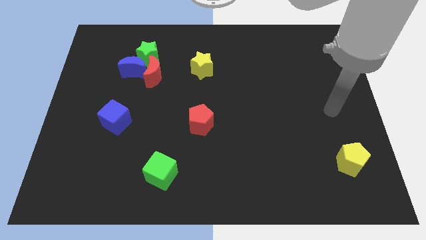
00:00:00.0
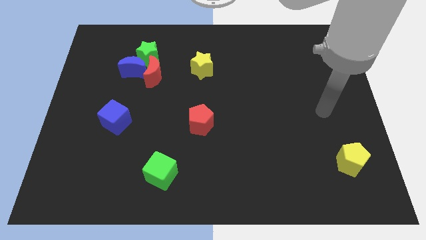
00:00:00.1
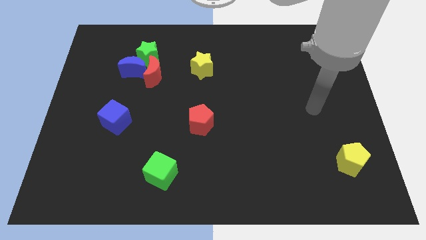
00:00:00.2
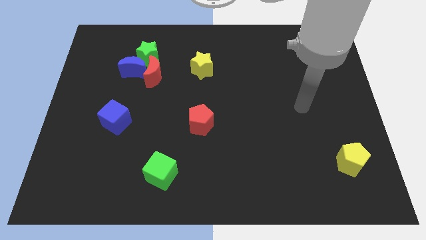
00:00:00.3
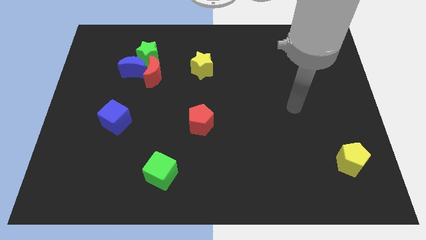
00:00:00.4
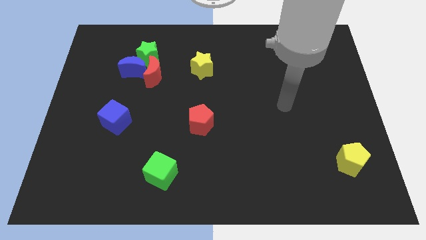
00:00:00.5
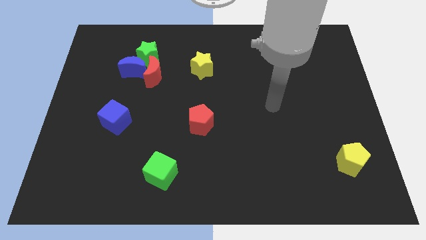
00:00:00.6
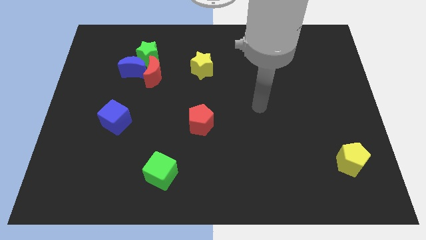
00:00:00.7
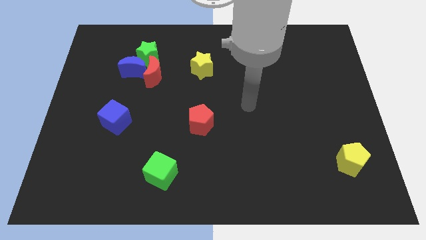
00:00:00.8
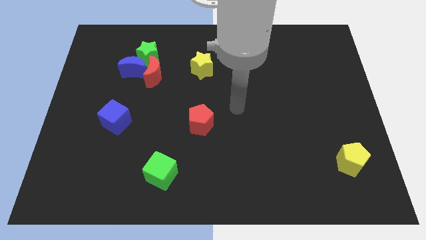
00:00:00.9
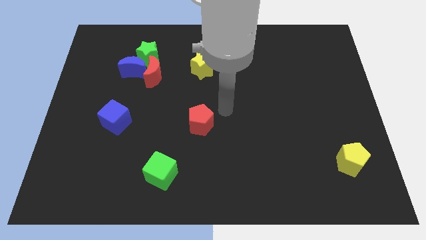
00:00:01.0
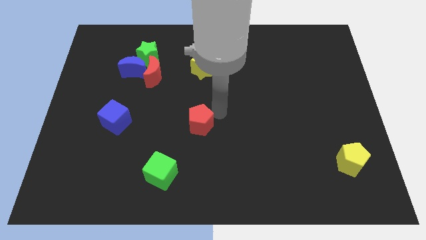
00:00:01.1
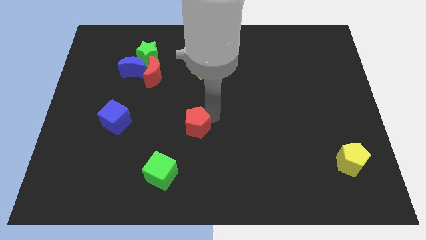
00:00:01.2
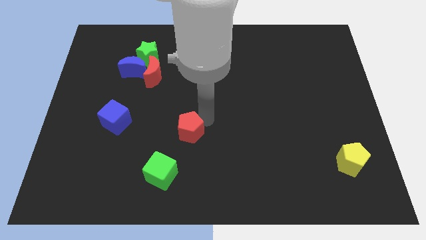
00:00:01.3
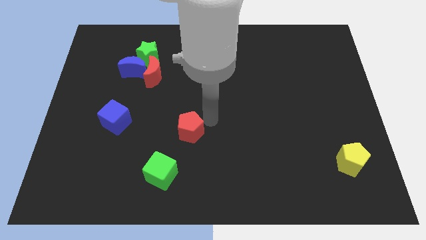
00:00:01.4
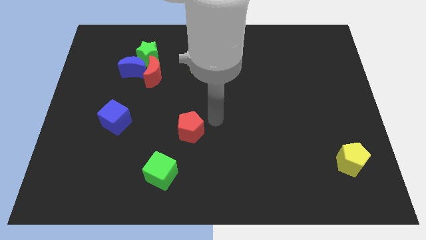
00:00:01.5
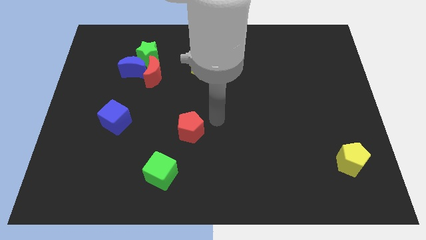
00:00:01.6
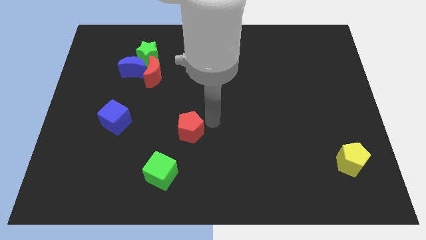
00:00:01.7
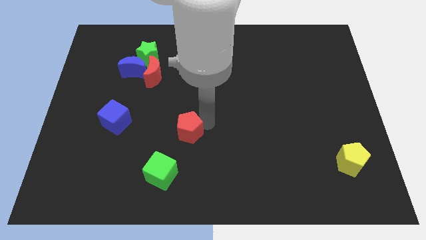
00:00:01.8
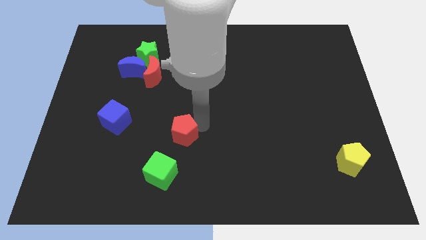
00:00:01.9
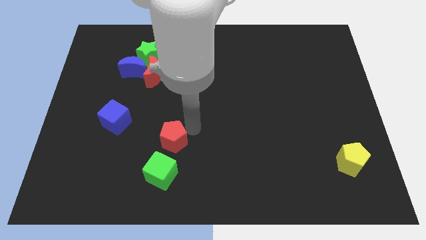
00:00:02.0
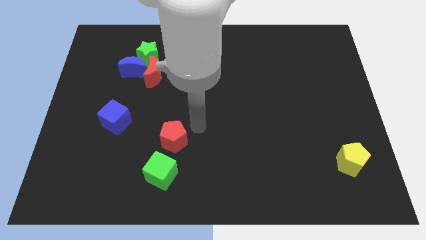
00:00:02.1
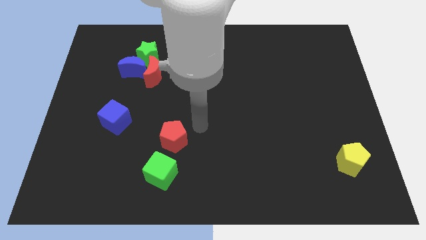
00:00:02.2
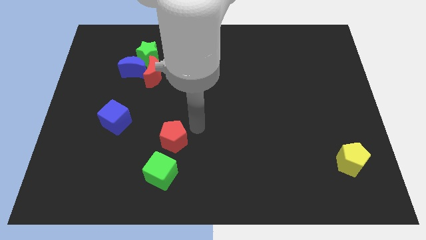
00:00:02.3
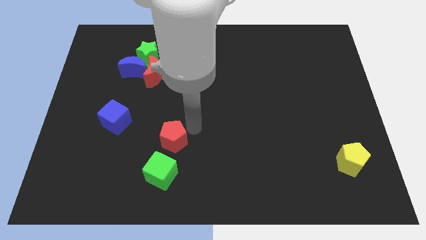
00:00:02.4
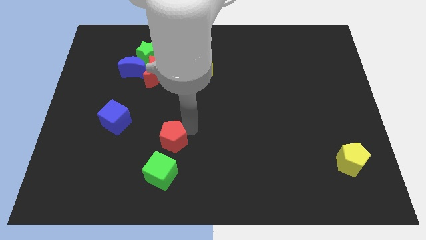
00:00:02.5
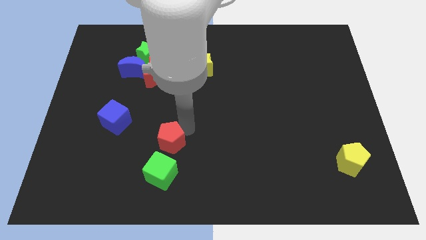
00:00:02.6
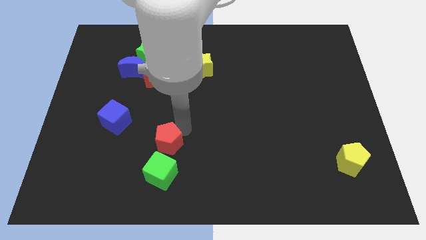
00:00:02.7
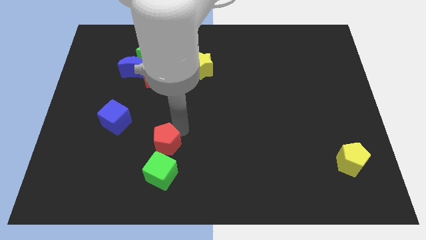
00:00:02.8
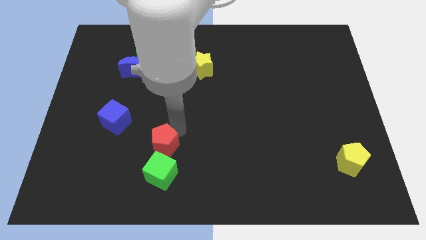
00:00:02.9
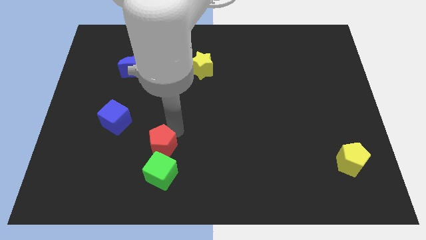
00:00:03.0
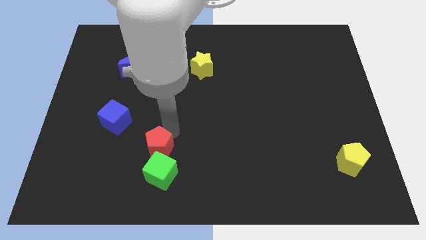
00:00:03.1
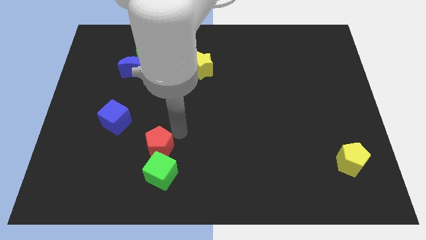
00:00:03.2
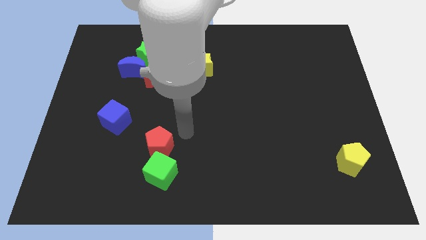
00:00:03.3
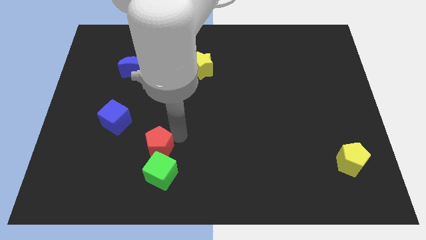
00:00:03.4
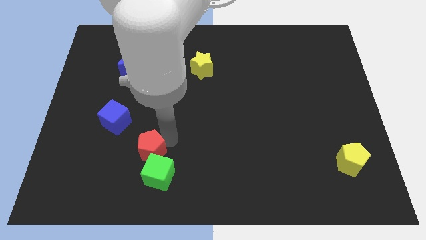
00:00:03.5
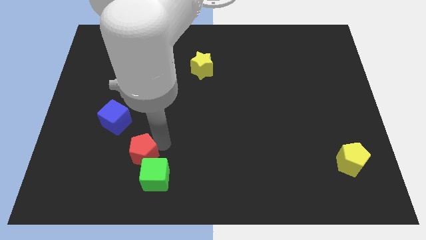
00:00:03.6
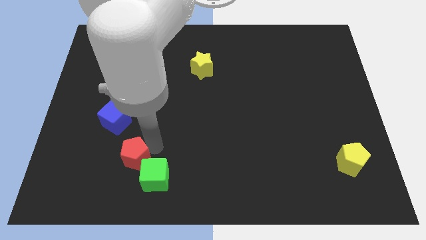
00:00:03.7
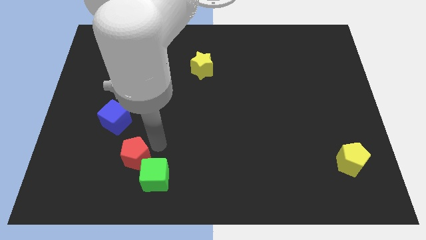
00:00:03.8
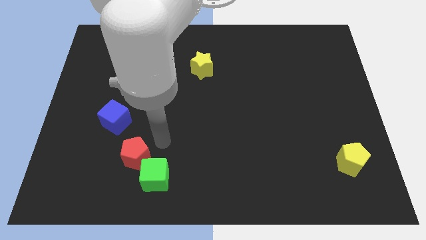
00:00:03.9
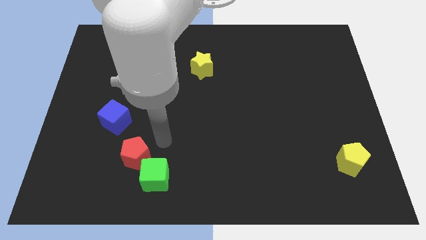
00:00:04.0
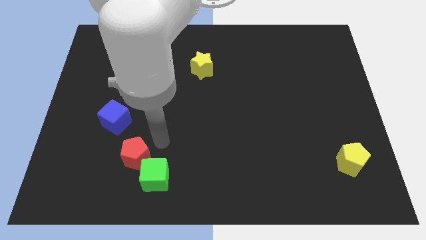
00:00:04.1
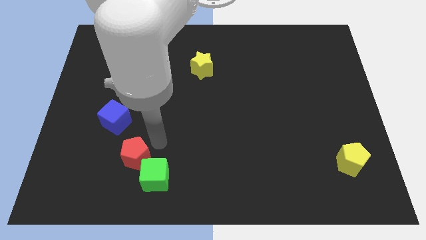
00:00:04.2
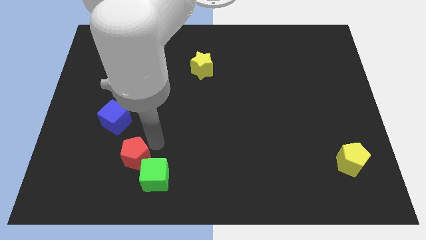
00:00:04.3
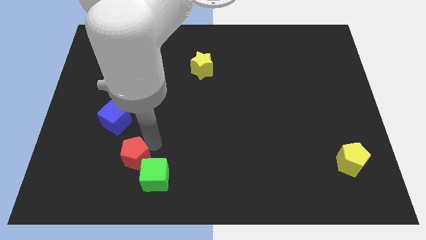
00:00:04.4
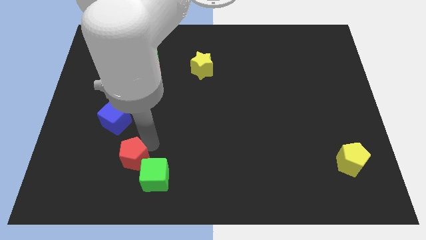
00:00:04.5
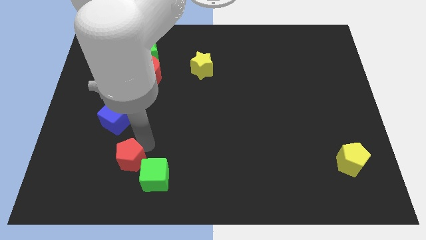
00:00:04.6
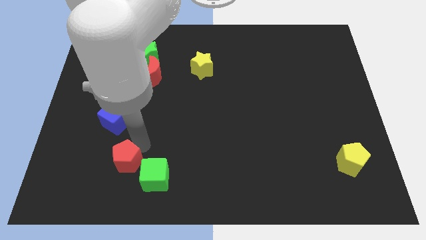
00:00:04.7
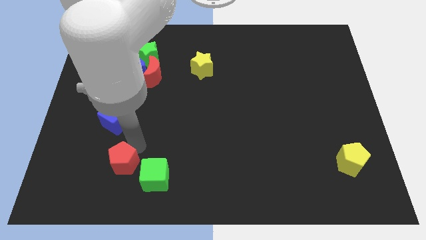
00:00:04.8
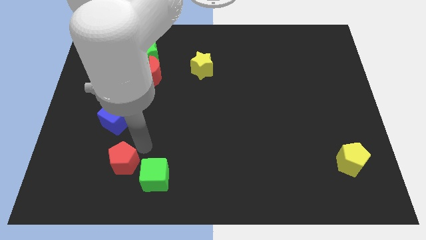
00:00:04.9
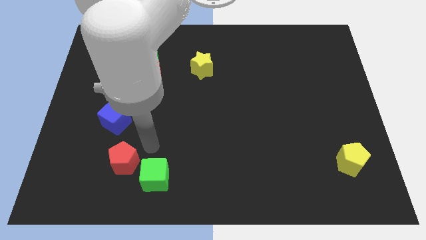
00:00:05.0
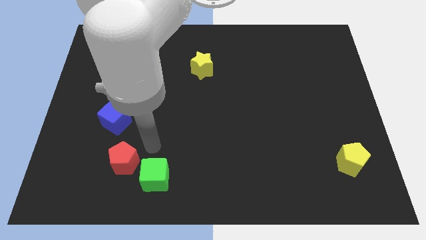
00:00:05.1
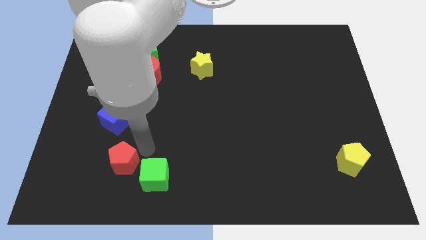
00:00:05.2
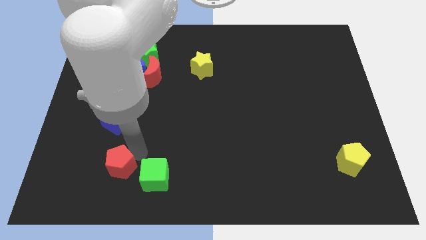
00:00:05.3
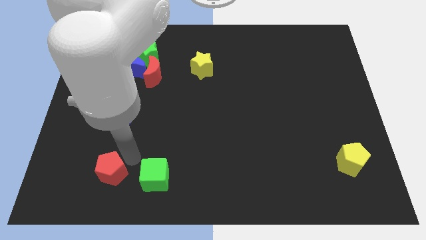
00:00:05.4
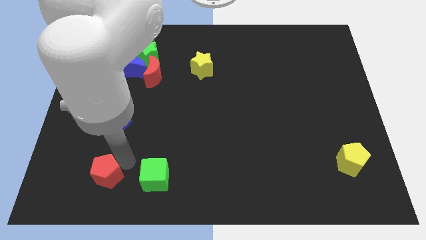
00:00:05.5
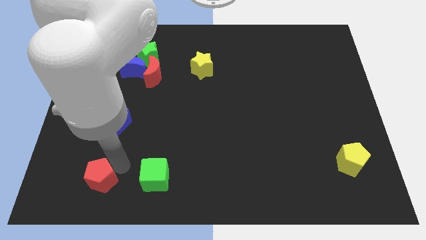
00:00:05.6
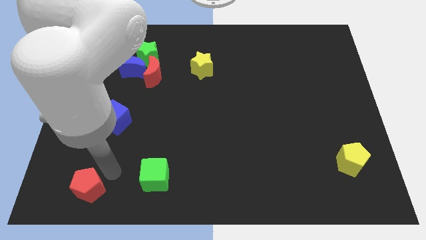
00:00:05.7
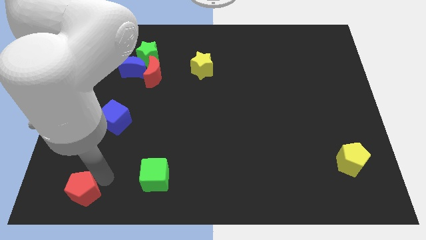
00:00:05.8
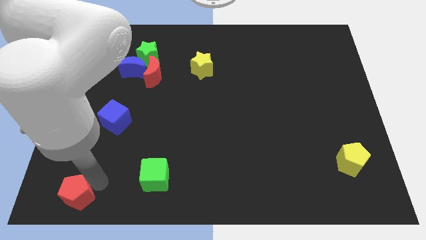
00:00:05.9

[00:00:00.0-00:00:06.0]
slide the red pentagon to the bottom left corner
